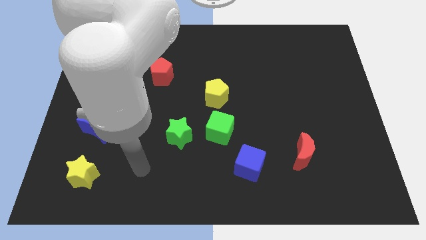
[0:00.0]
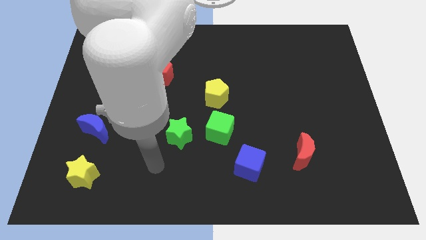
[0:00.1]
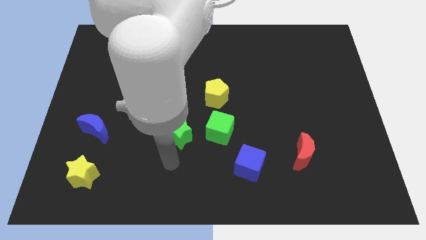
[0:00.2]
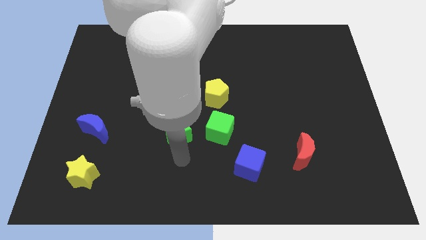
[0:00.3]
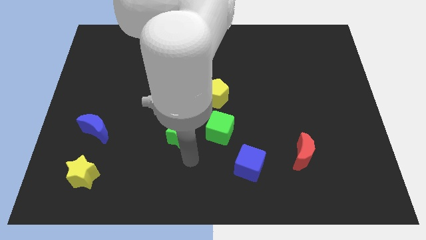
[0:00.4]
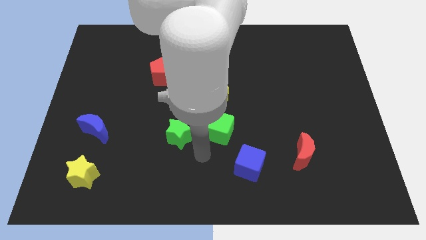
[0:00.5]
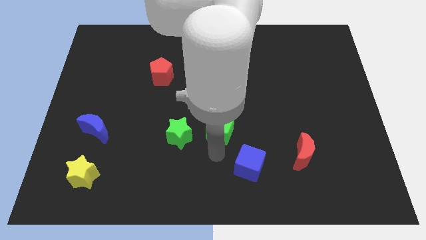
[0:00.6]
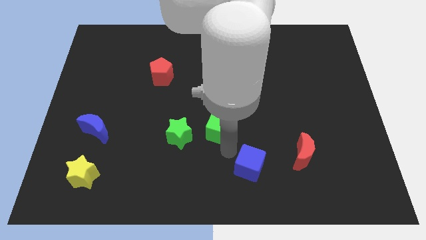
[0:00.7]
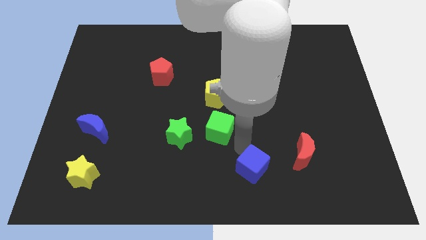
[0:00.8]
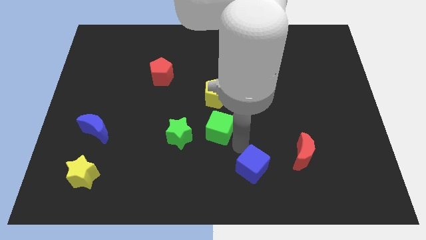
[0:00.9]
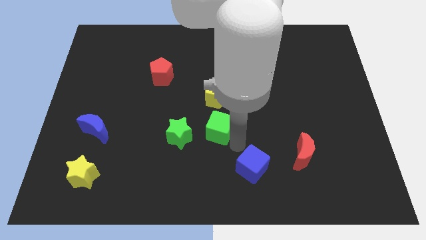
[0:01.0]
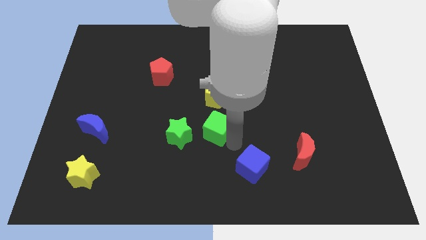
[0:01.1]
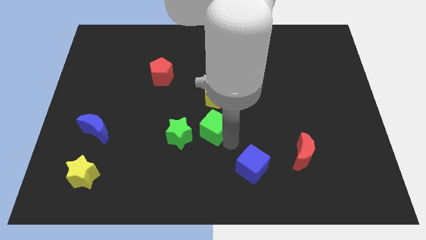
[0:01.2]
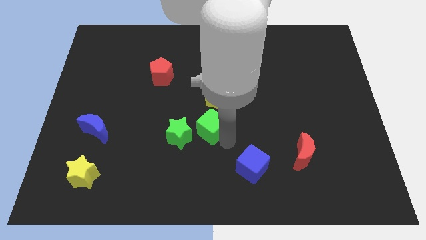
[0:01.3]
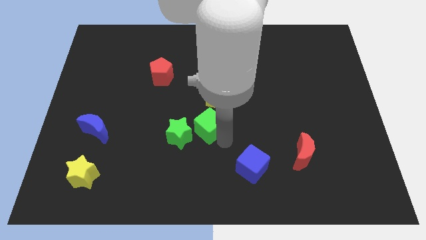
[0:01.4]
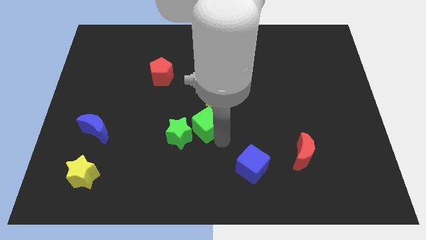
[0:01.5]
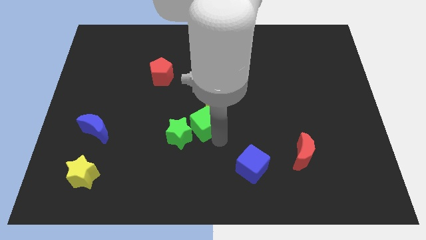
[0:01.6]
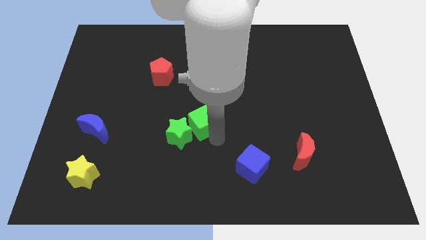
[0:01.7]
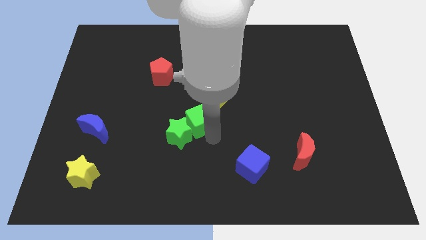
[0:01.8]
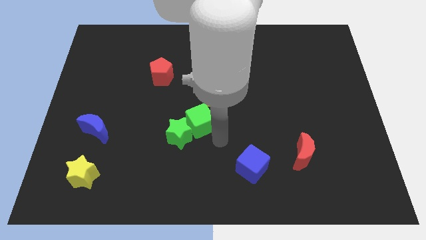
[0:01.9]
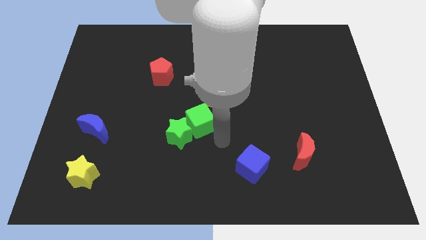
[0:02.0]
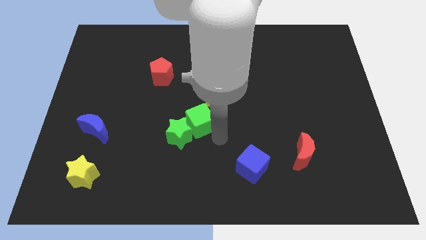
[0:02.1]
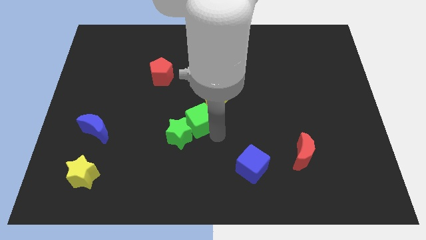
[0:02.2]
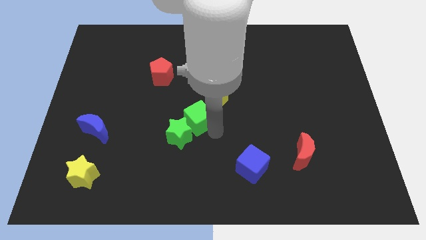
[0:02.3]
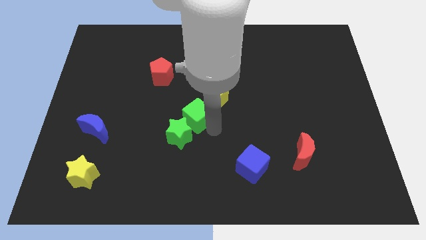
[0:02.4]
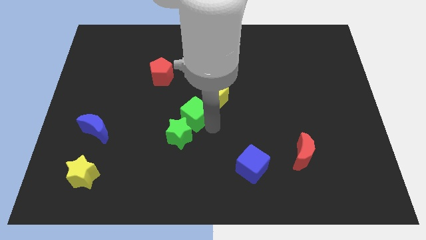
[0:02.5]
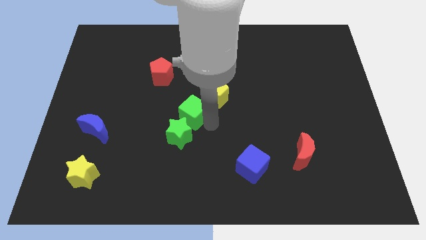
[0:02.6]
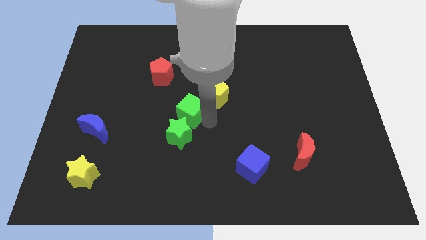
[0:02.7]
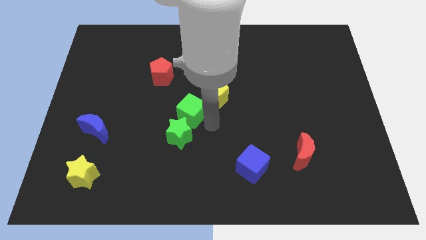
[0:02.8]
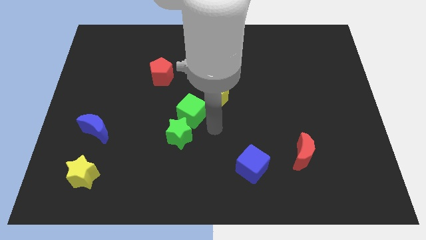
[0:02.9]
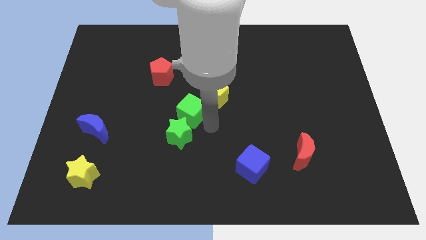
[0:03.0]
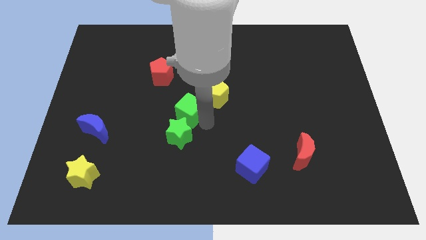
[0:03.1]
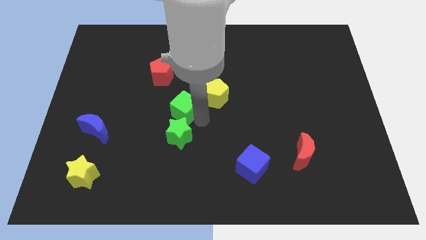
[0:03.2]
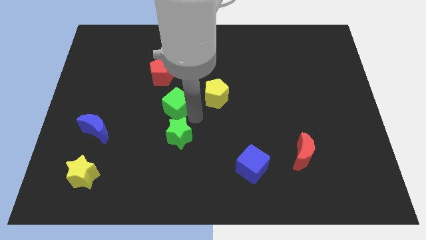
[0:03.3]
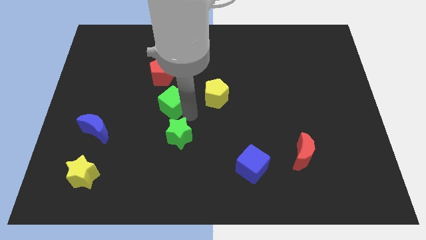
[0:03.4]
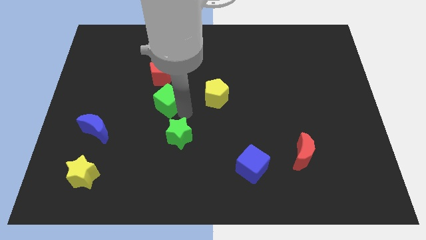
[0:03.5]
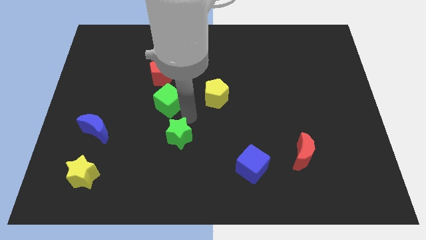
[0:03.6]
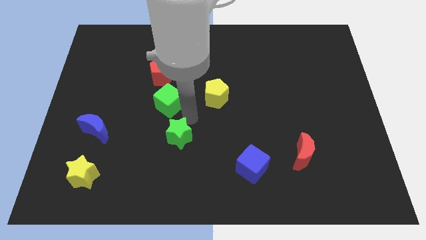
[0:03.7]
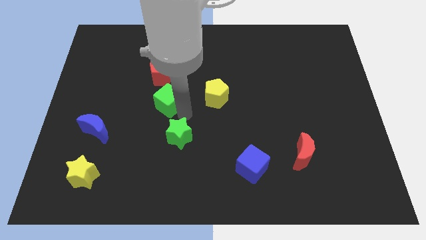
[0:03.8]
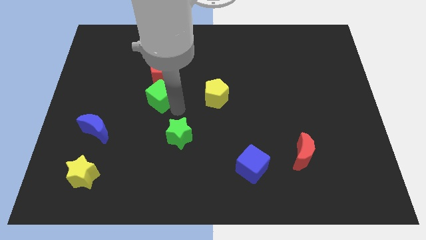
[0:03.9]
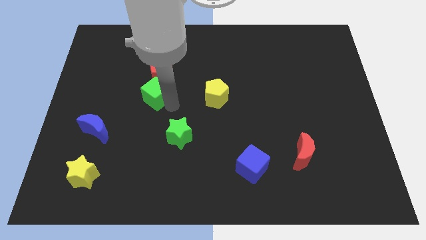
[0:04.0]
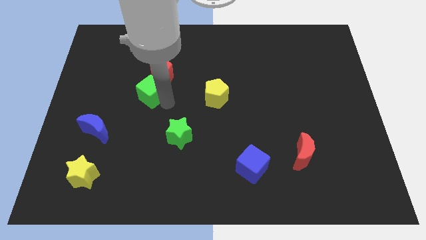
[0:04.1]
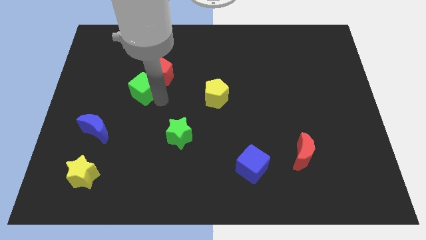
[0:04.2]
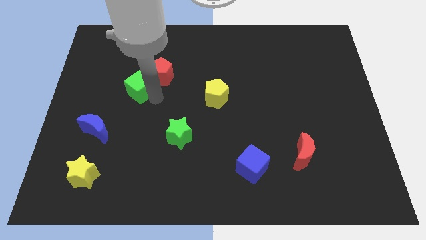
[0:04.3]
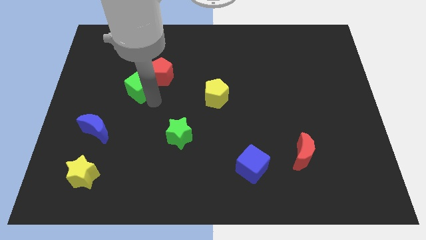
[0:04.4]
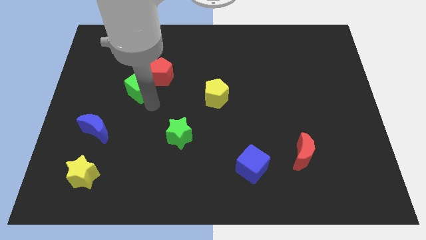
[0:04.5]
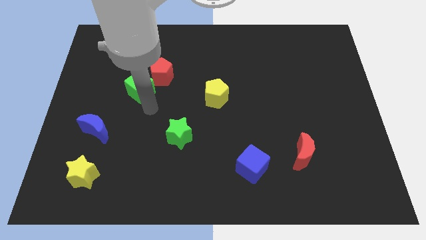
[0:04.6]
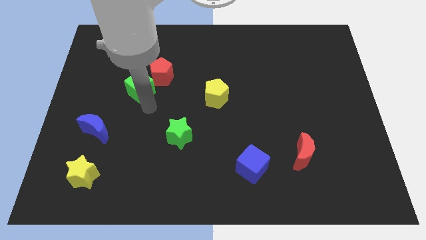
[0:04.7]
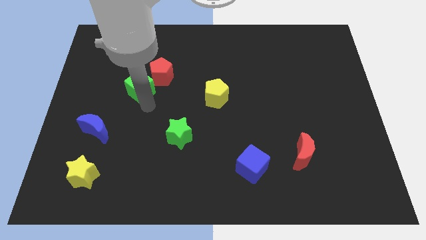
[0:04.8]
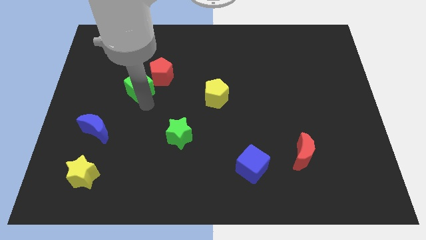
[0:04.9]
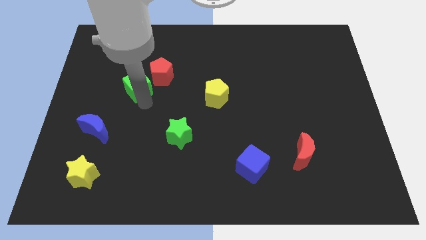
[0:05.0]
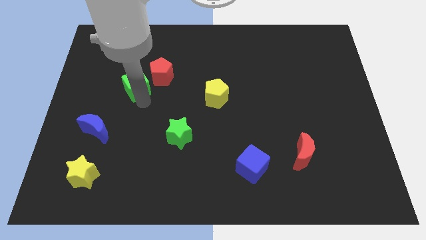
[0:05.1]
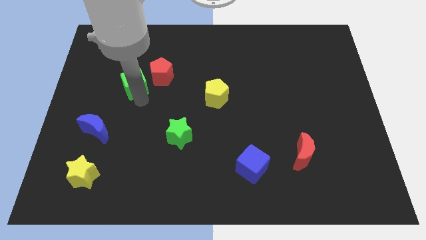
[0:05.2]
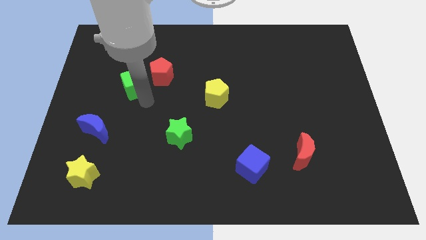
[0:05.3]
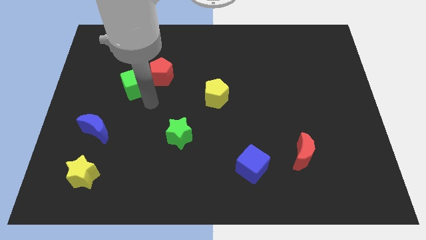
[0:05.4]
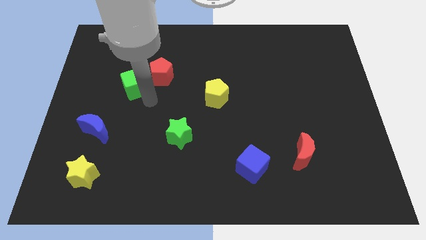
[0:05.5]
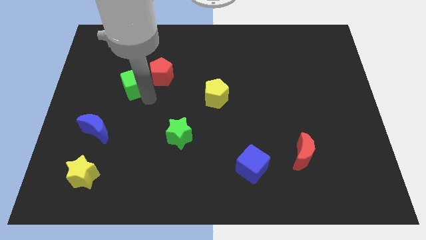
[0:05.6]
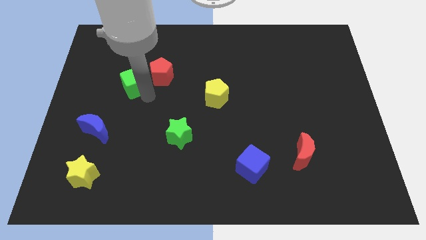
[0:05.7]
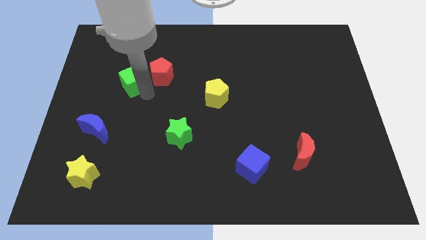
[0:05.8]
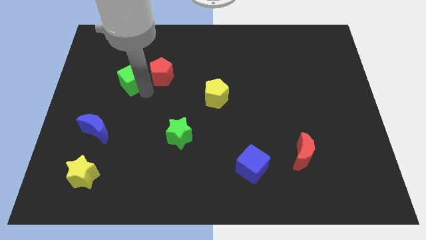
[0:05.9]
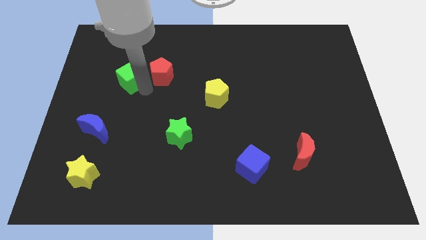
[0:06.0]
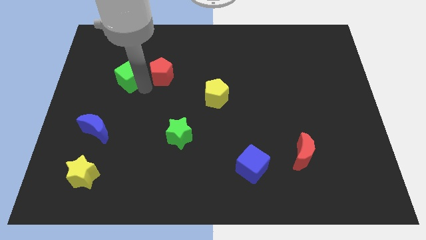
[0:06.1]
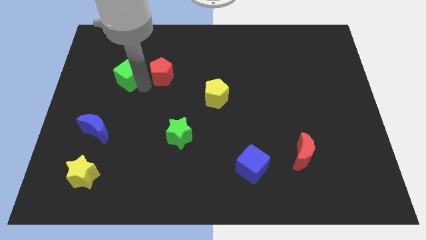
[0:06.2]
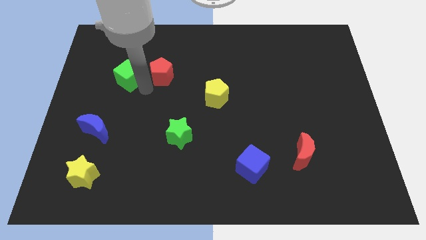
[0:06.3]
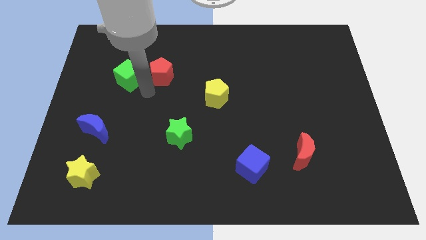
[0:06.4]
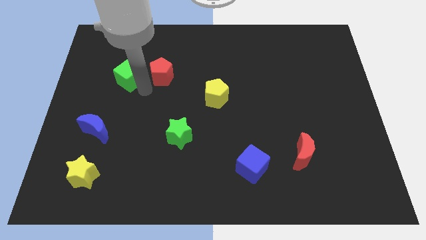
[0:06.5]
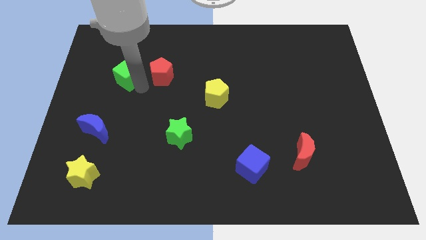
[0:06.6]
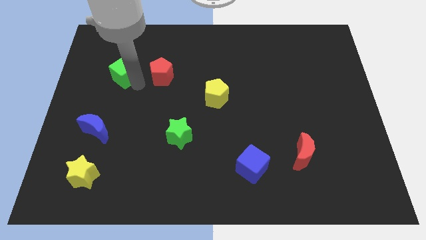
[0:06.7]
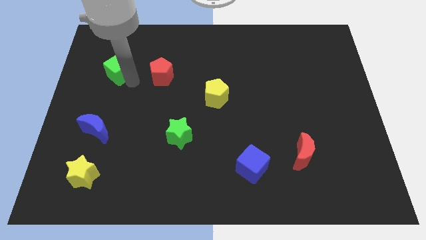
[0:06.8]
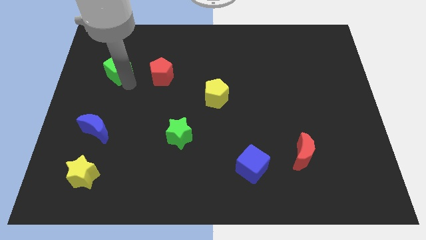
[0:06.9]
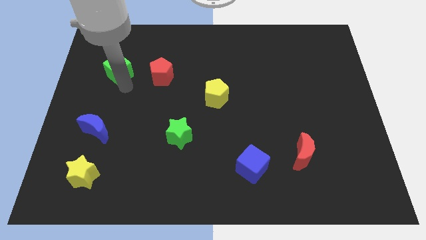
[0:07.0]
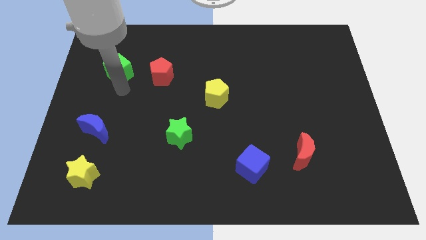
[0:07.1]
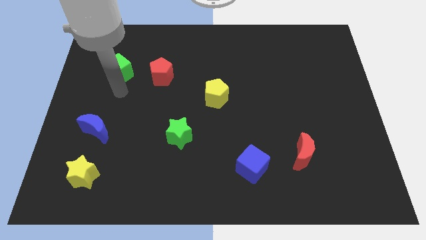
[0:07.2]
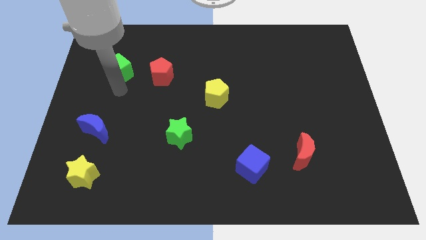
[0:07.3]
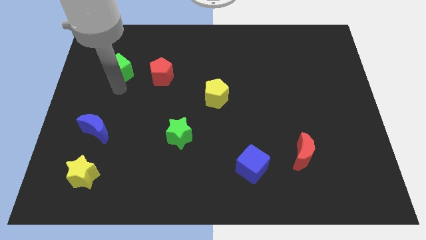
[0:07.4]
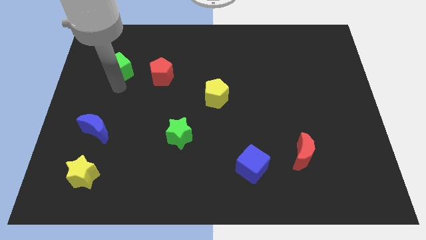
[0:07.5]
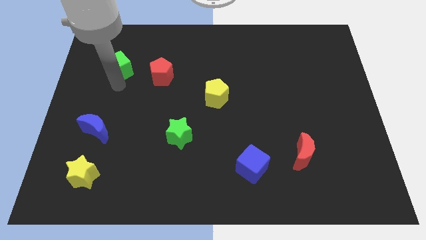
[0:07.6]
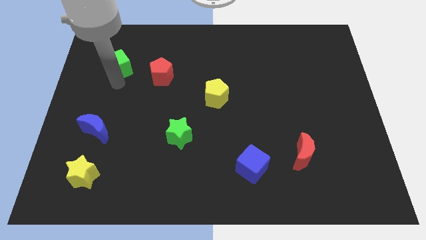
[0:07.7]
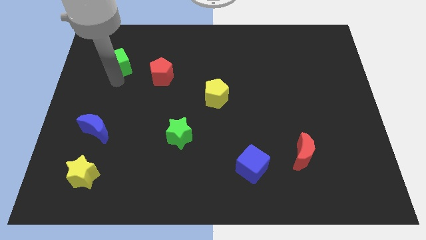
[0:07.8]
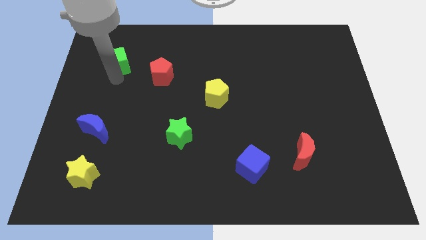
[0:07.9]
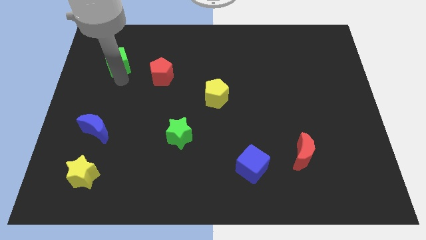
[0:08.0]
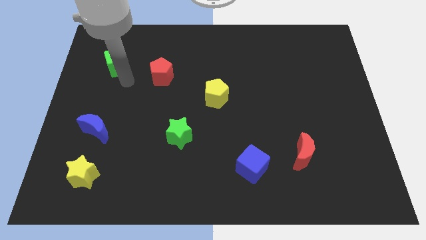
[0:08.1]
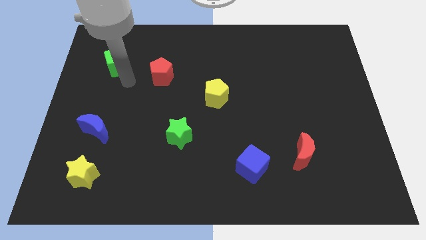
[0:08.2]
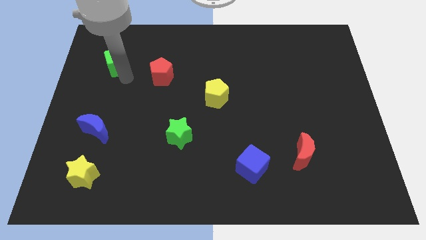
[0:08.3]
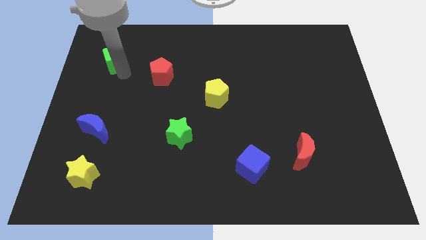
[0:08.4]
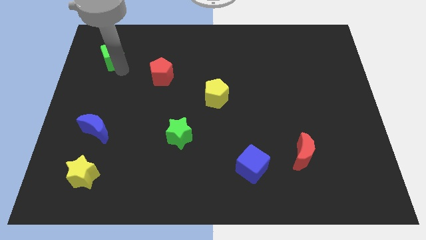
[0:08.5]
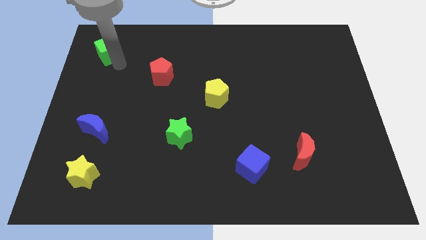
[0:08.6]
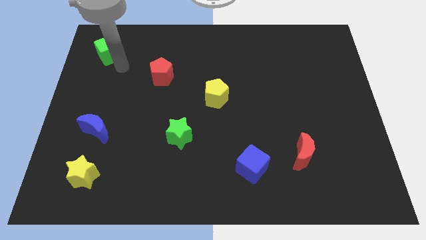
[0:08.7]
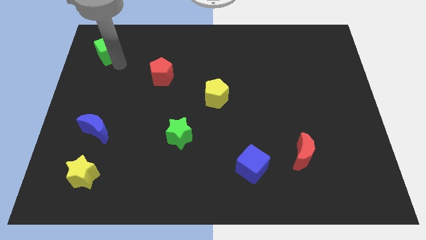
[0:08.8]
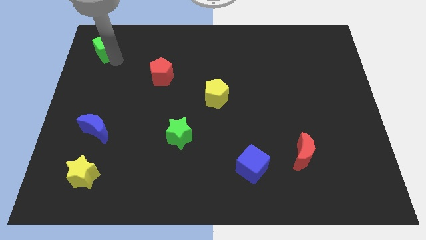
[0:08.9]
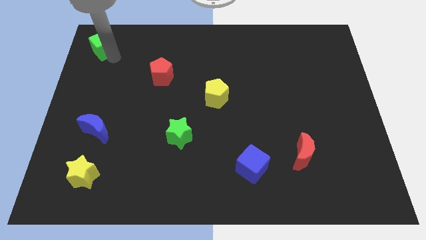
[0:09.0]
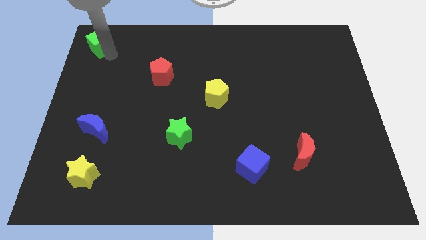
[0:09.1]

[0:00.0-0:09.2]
put the green cube to the top left
